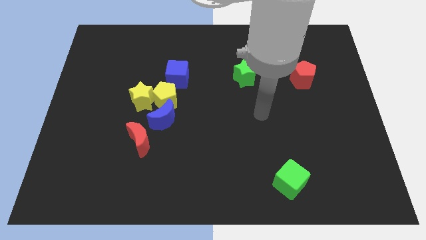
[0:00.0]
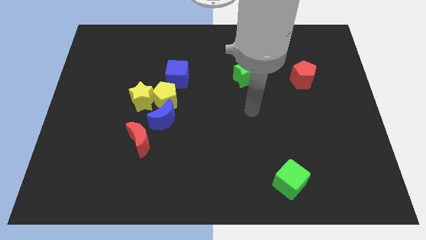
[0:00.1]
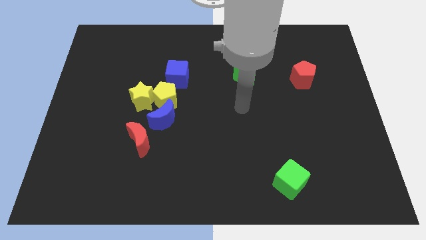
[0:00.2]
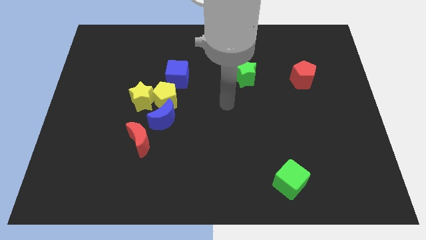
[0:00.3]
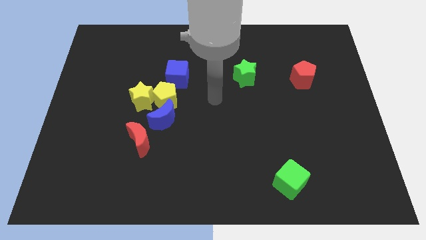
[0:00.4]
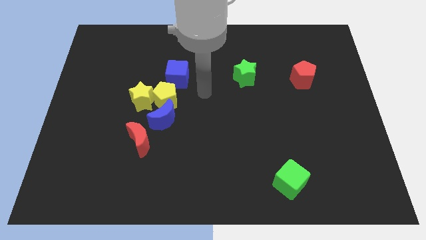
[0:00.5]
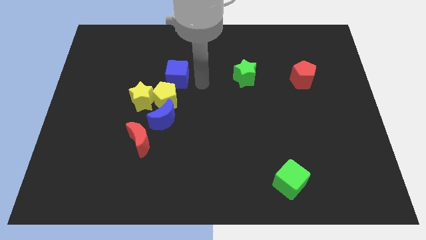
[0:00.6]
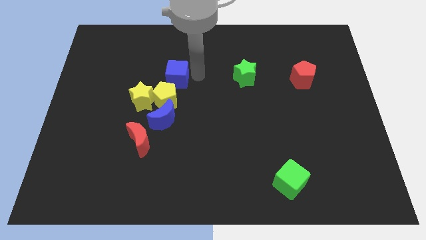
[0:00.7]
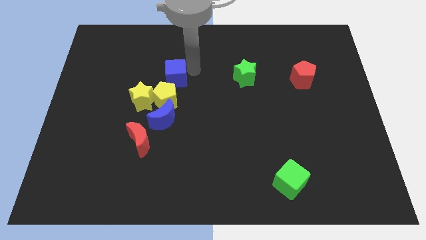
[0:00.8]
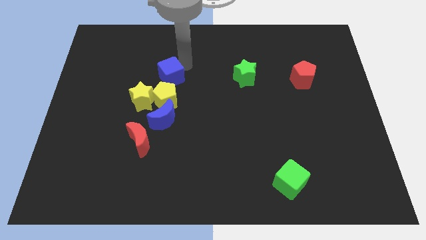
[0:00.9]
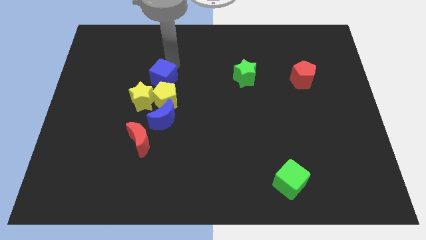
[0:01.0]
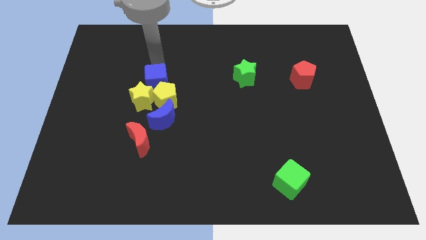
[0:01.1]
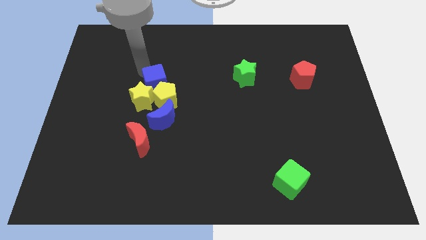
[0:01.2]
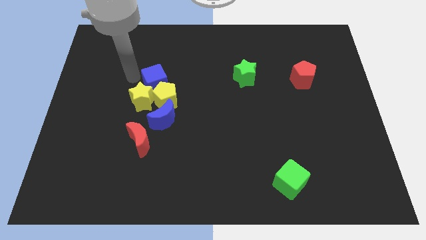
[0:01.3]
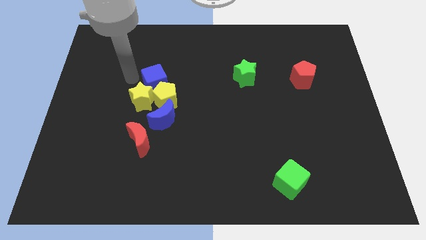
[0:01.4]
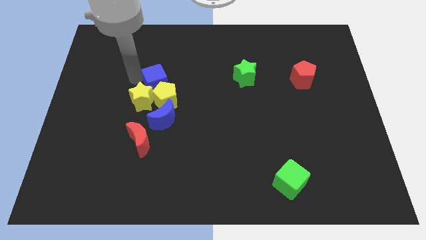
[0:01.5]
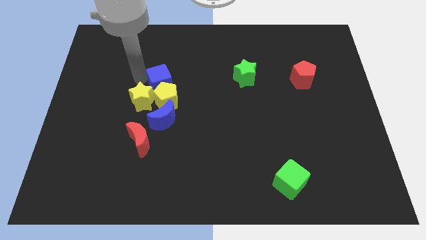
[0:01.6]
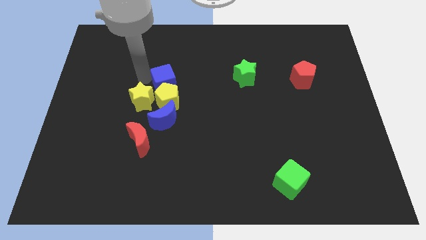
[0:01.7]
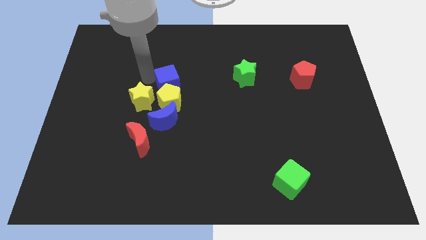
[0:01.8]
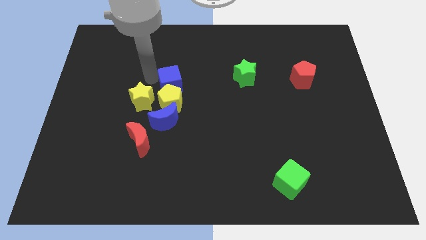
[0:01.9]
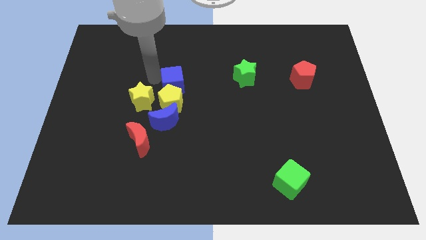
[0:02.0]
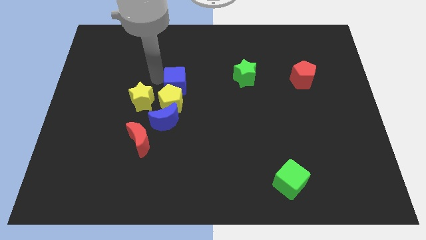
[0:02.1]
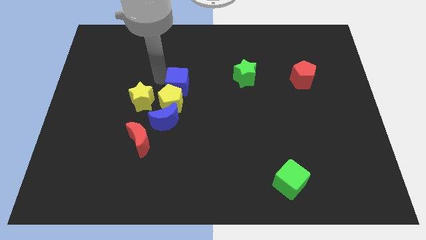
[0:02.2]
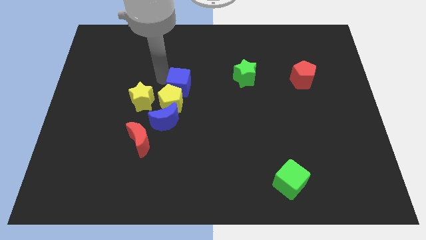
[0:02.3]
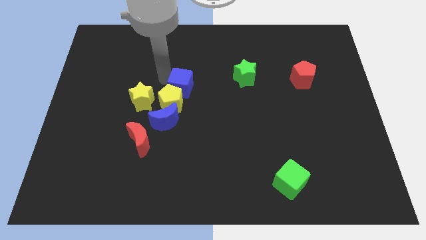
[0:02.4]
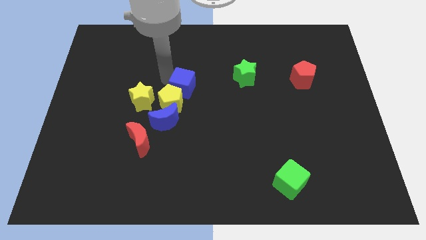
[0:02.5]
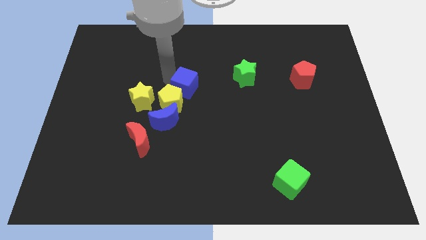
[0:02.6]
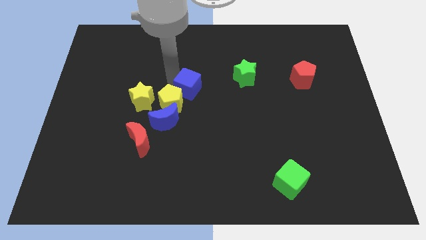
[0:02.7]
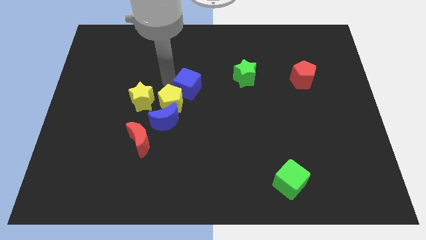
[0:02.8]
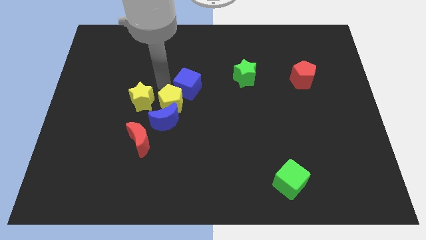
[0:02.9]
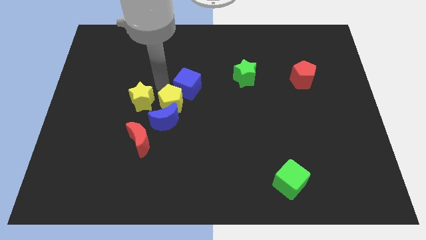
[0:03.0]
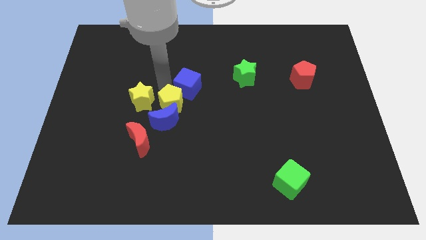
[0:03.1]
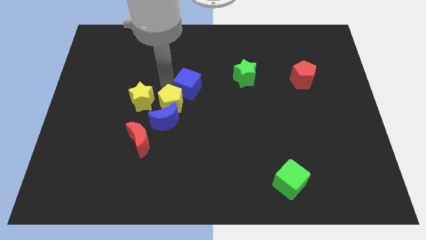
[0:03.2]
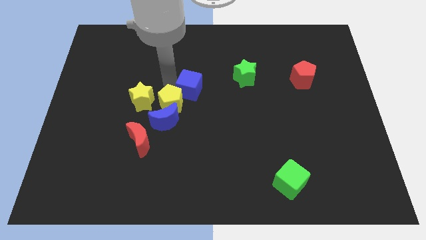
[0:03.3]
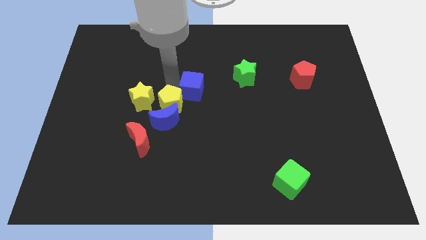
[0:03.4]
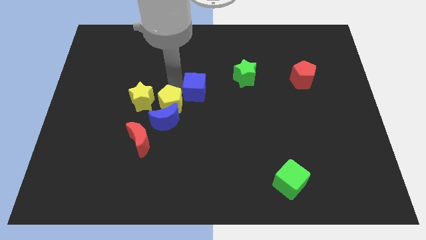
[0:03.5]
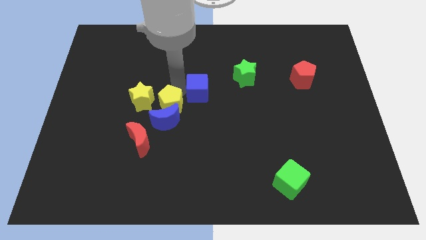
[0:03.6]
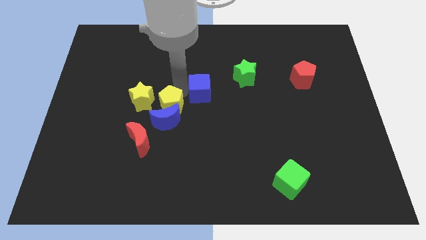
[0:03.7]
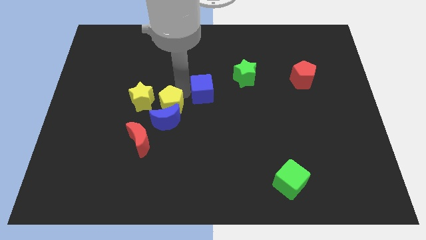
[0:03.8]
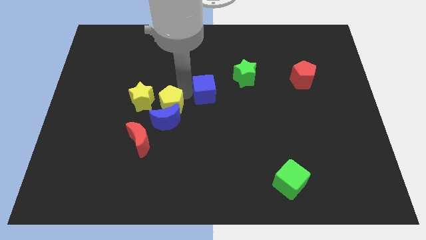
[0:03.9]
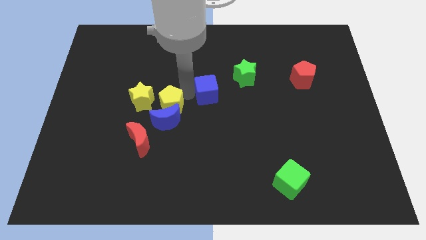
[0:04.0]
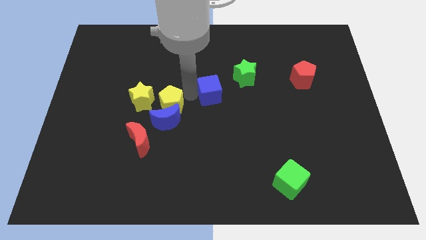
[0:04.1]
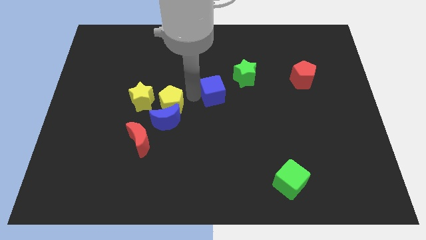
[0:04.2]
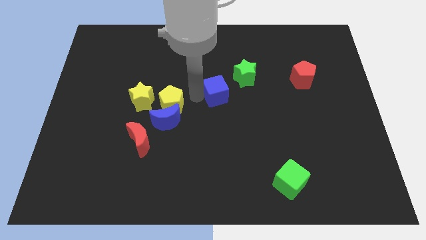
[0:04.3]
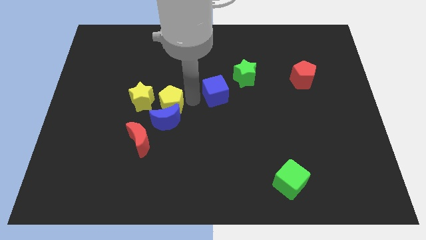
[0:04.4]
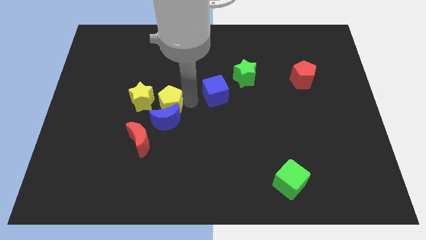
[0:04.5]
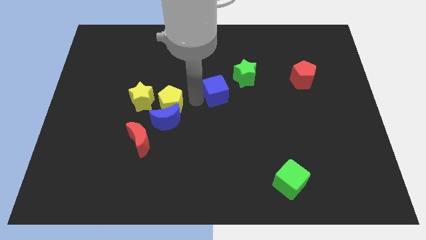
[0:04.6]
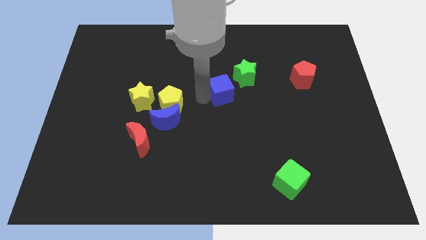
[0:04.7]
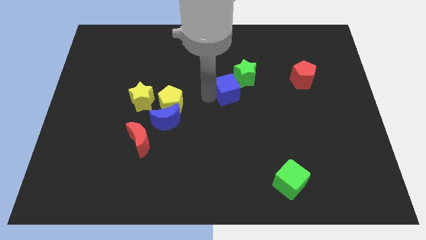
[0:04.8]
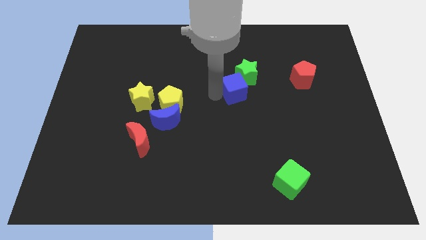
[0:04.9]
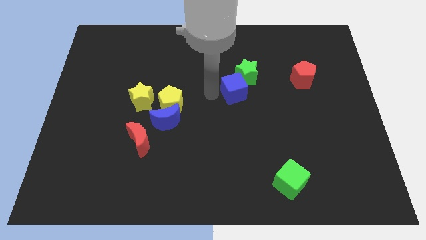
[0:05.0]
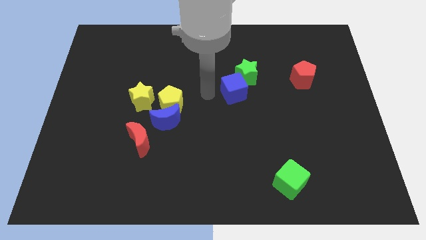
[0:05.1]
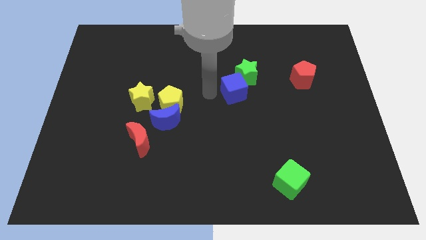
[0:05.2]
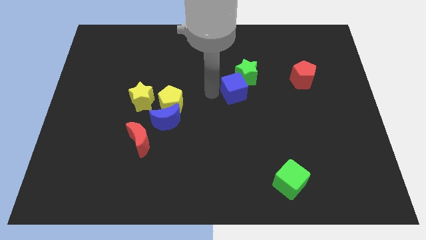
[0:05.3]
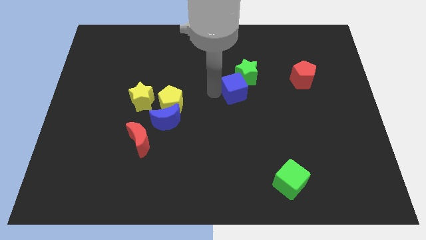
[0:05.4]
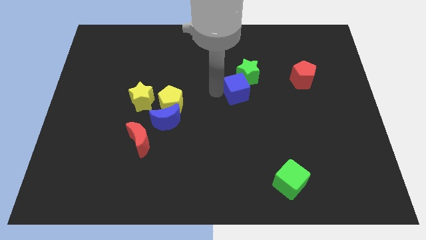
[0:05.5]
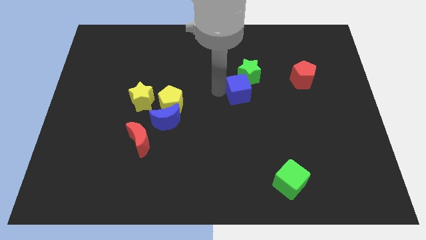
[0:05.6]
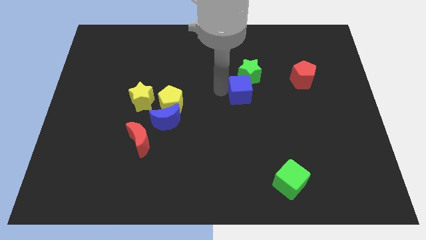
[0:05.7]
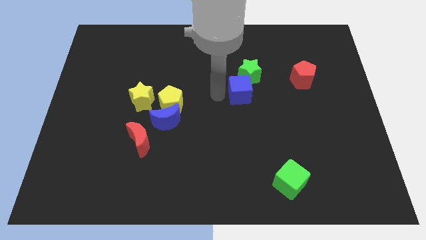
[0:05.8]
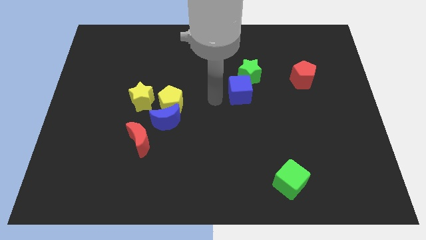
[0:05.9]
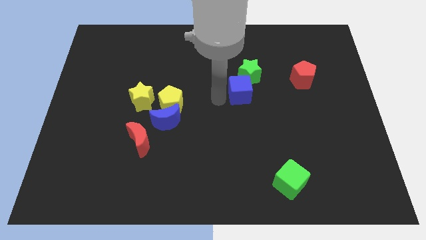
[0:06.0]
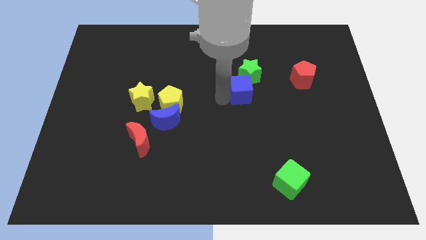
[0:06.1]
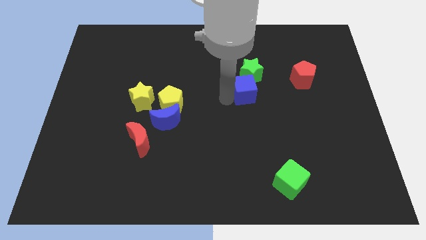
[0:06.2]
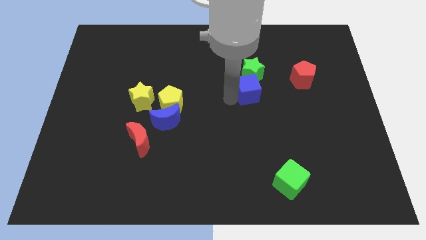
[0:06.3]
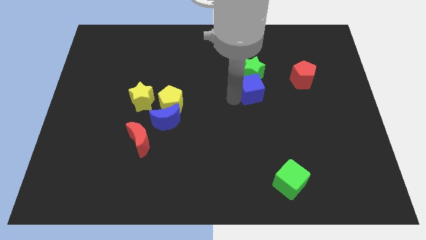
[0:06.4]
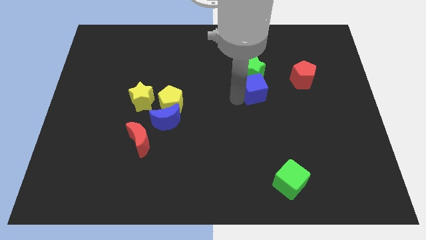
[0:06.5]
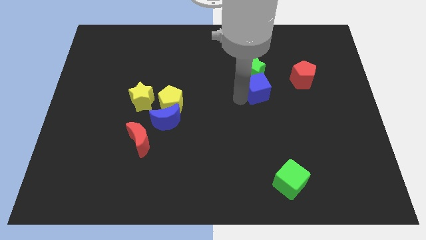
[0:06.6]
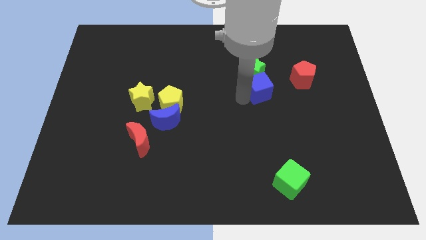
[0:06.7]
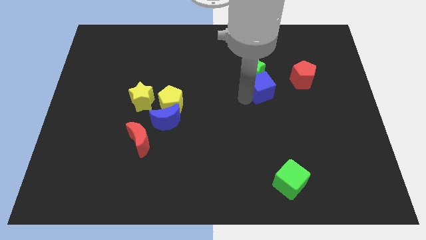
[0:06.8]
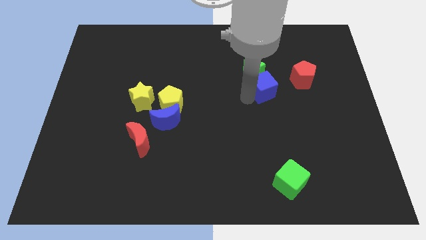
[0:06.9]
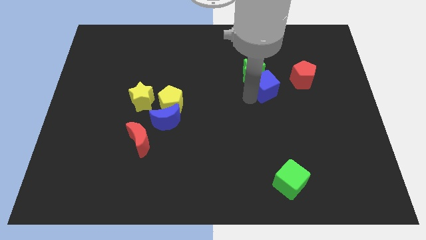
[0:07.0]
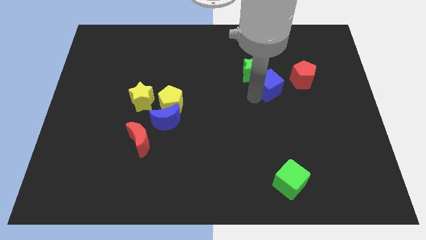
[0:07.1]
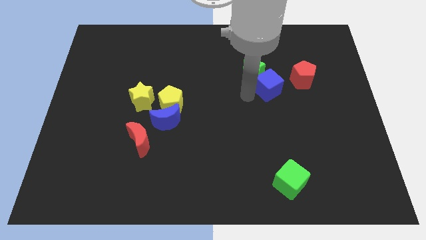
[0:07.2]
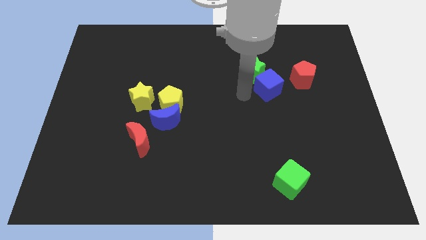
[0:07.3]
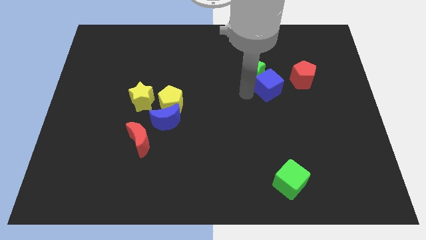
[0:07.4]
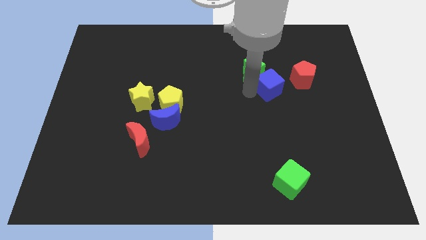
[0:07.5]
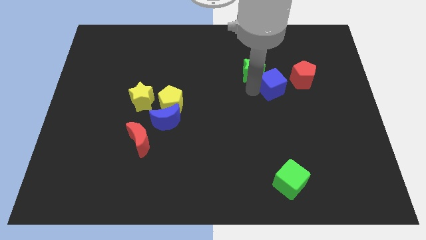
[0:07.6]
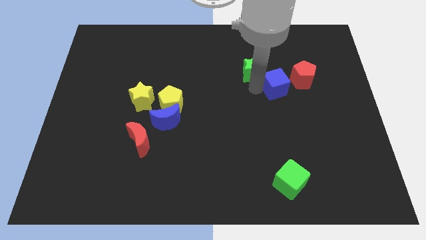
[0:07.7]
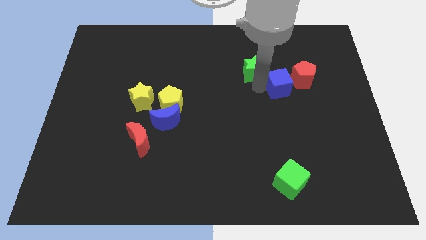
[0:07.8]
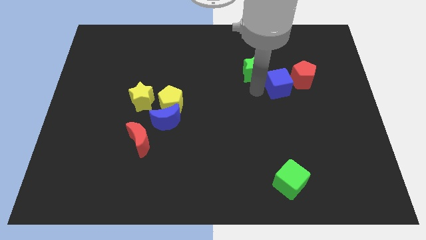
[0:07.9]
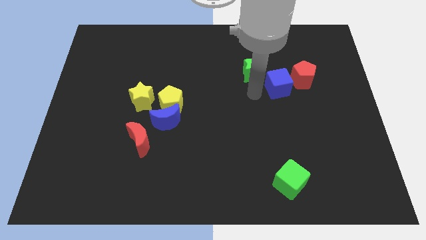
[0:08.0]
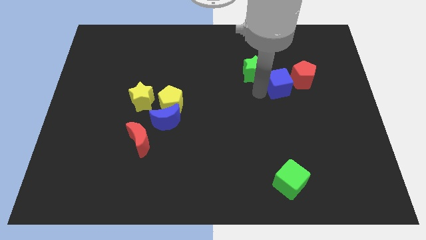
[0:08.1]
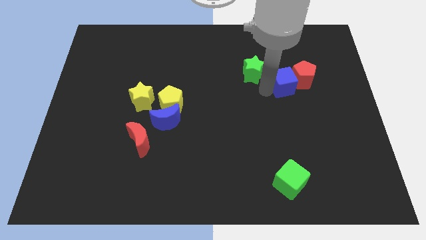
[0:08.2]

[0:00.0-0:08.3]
slide the blue cube close to the red pentagon
